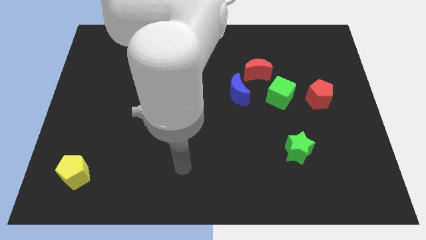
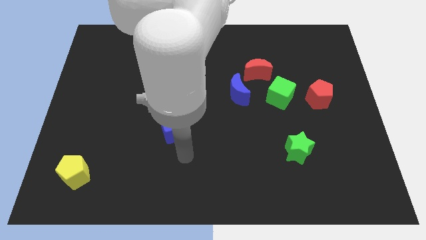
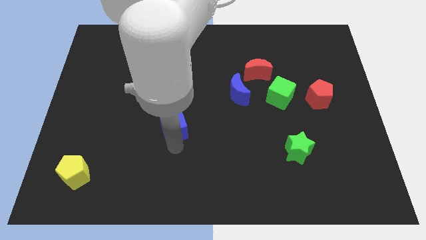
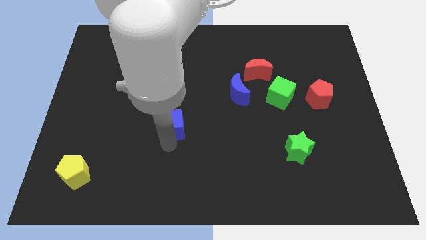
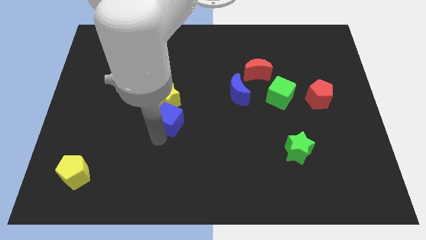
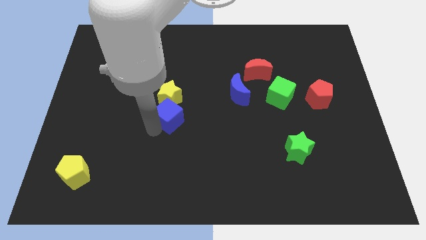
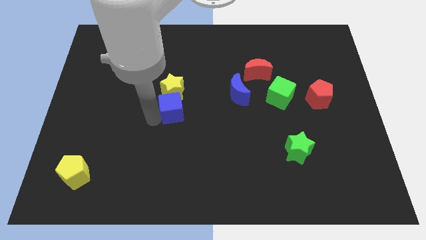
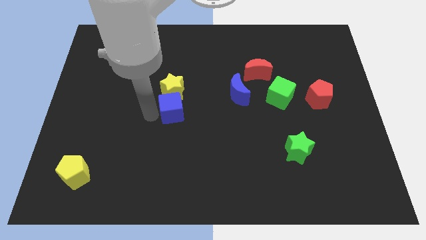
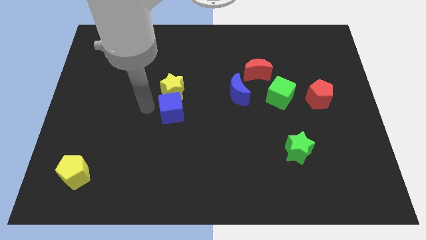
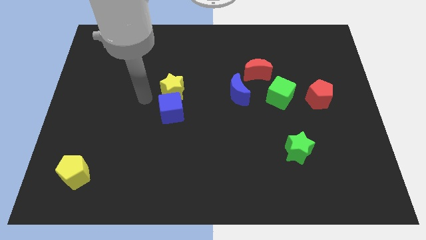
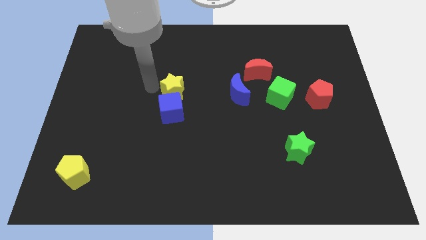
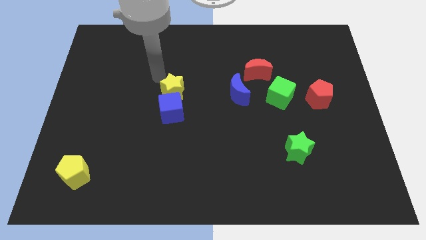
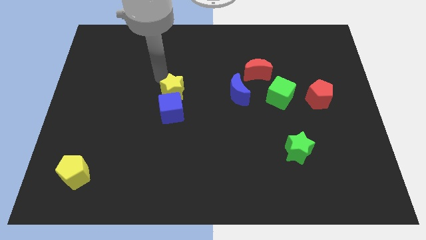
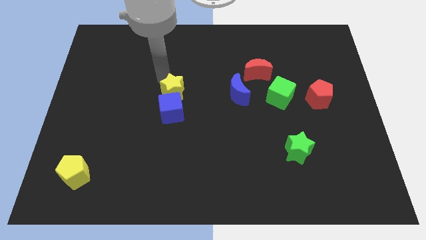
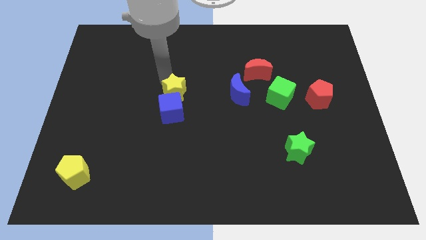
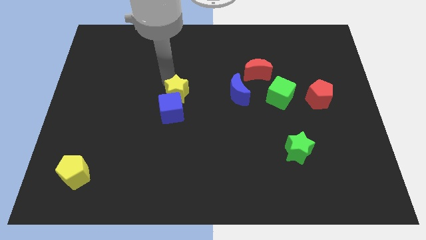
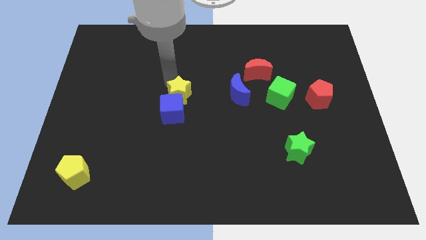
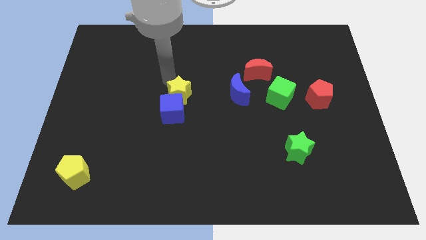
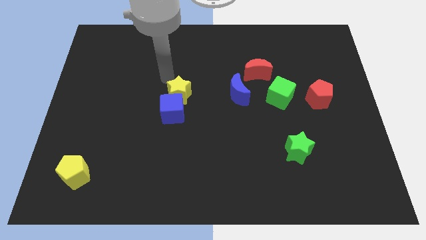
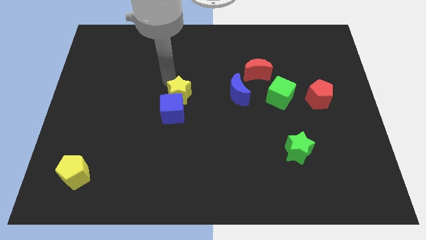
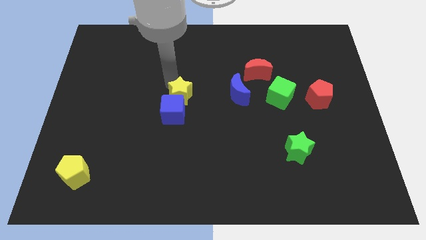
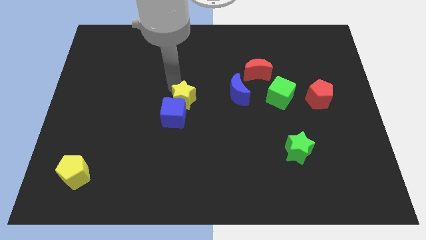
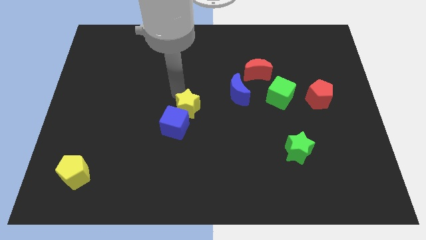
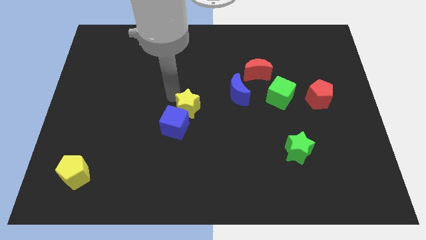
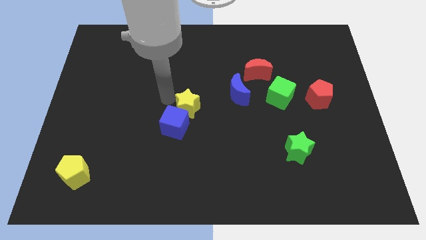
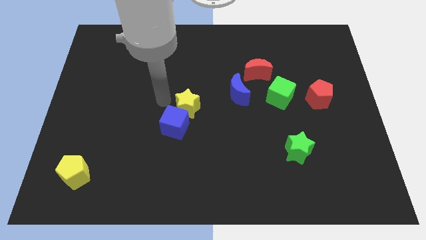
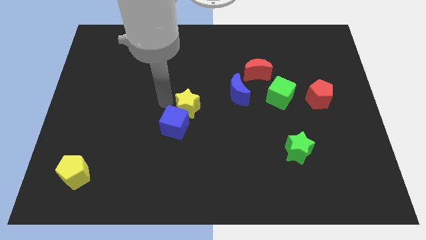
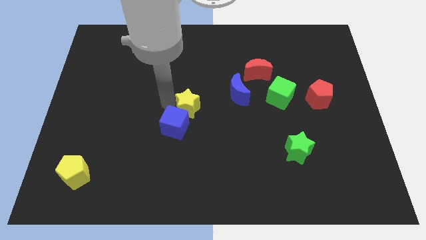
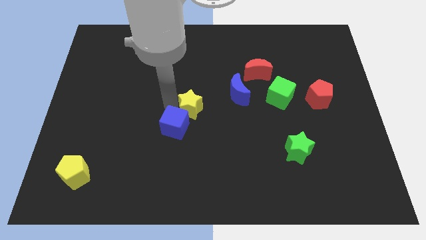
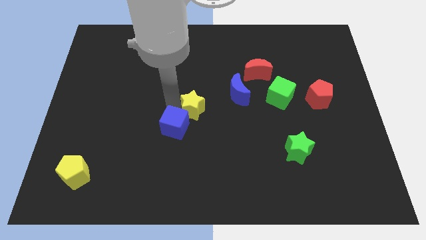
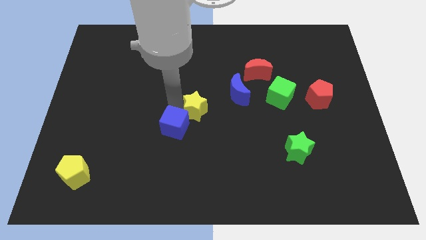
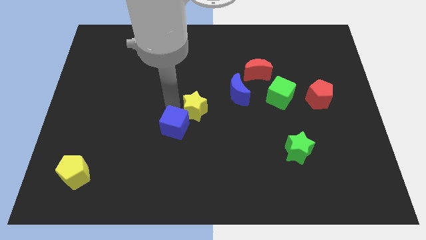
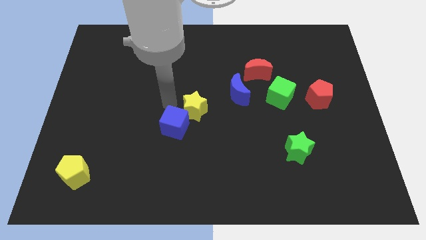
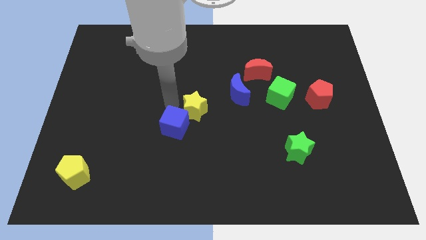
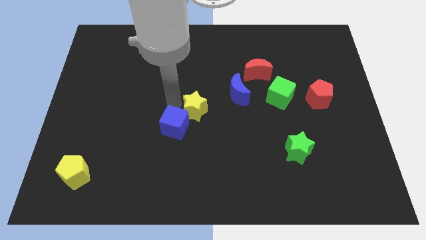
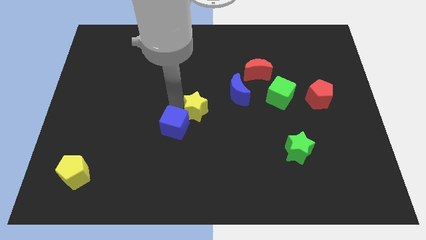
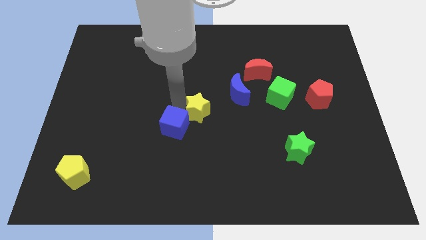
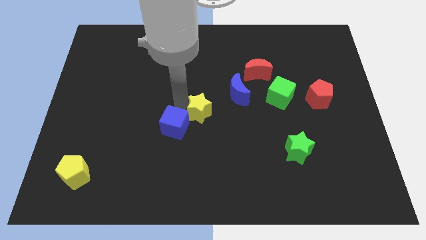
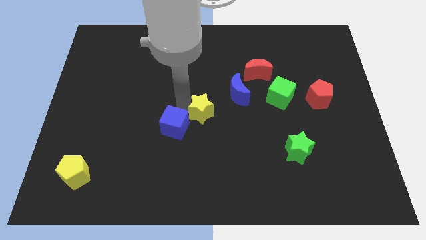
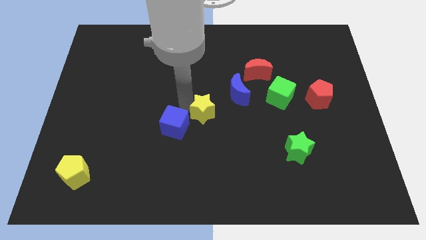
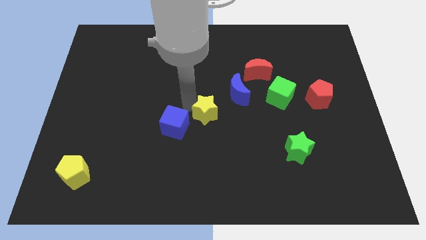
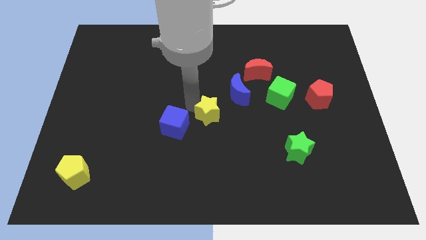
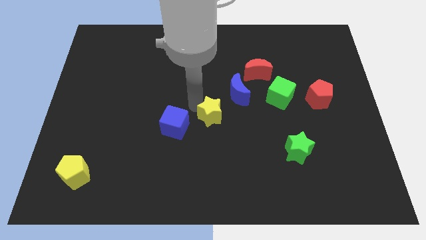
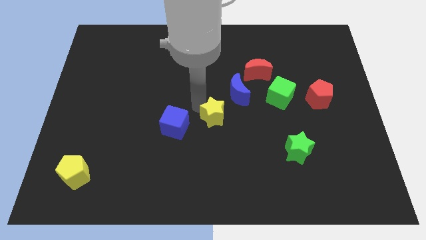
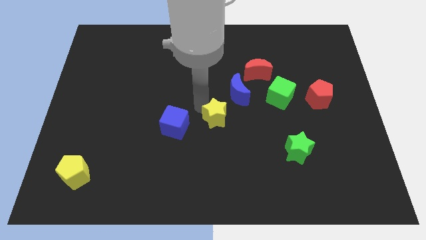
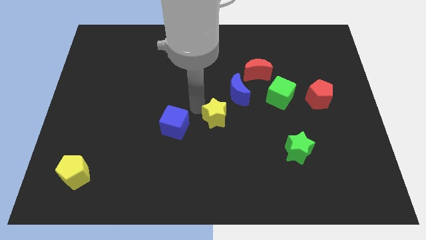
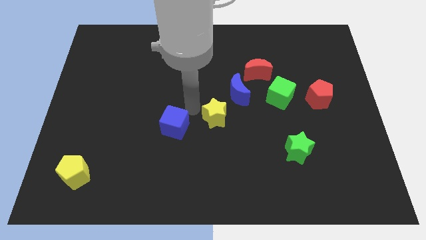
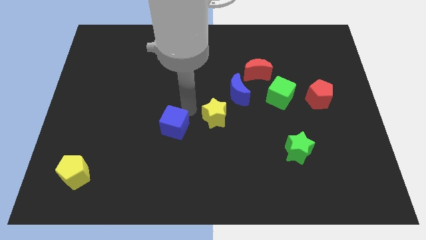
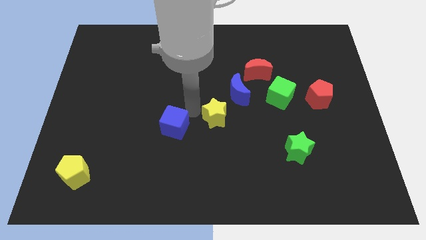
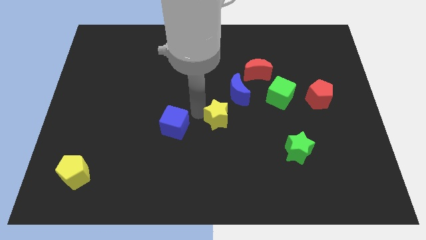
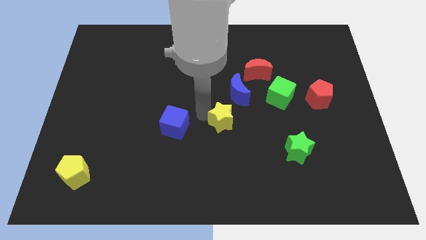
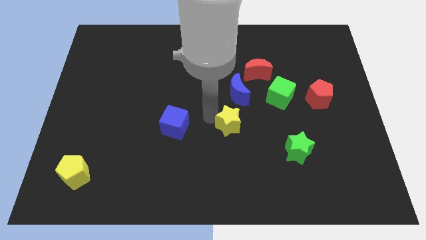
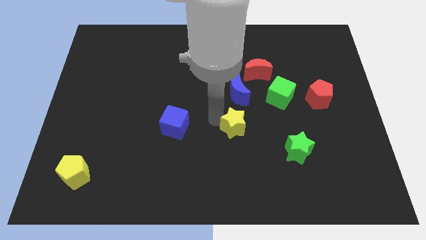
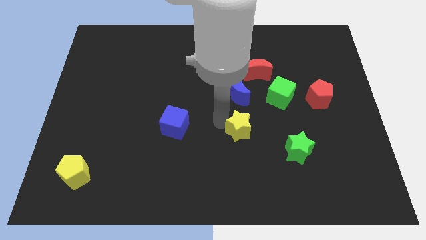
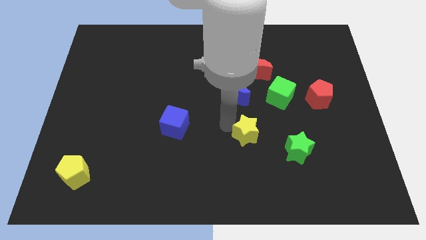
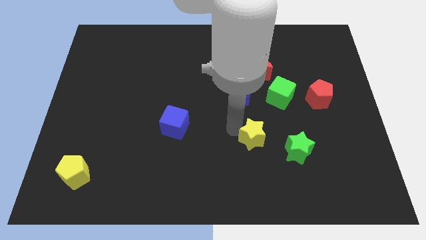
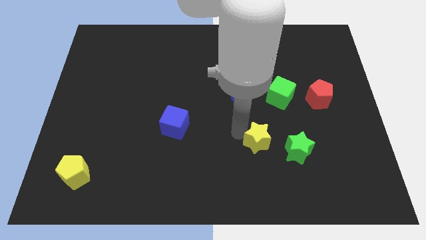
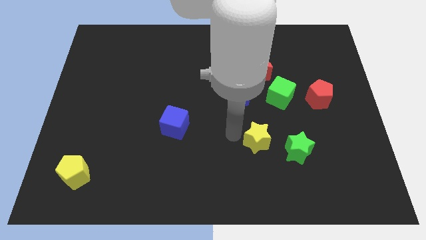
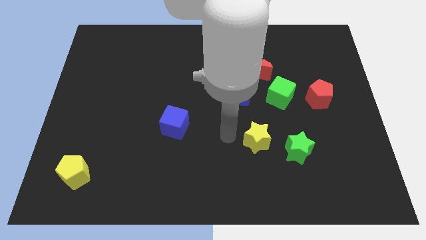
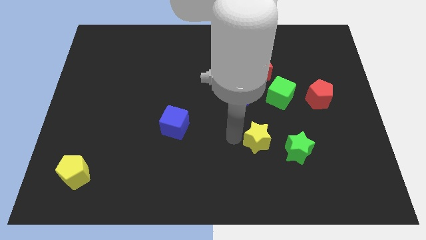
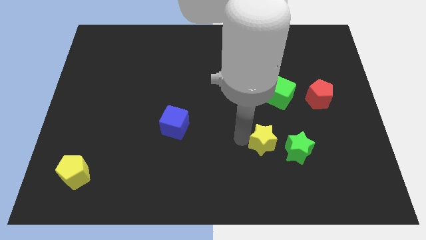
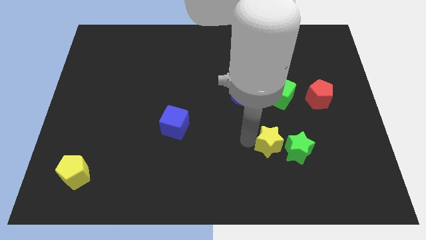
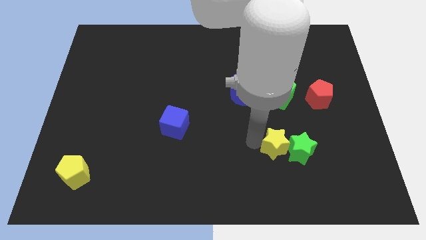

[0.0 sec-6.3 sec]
push the yellow star close to the green star

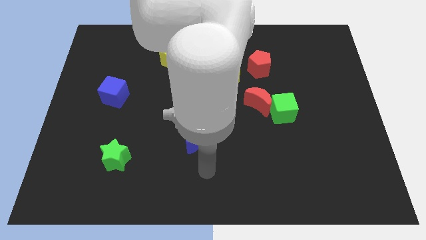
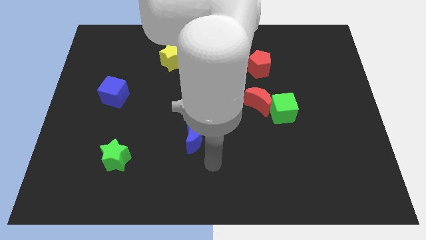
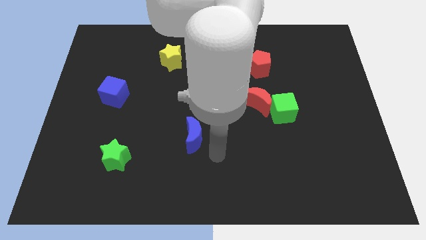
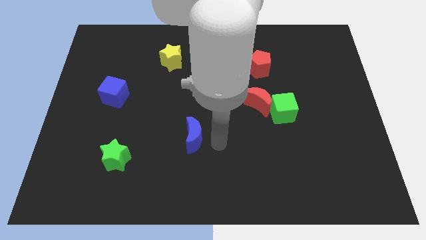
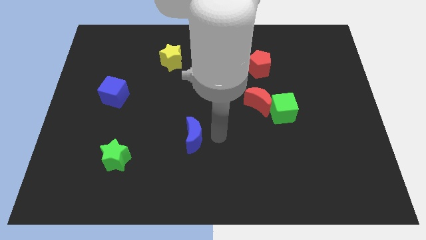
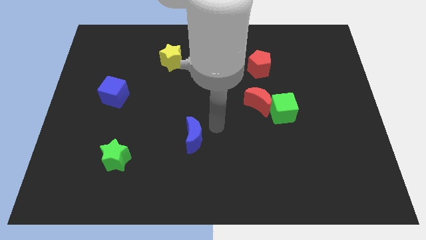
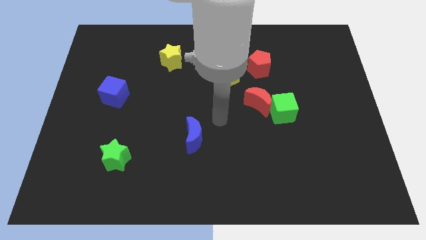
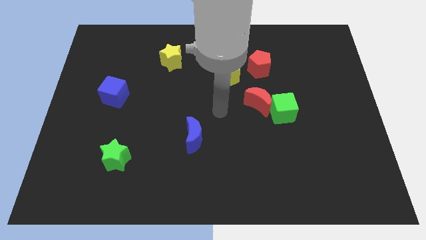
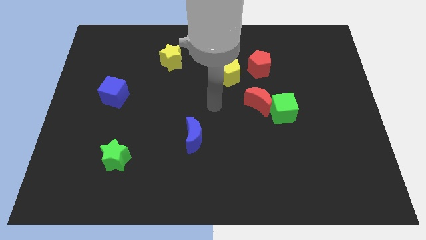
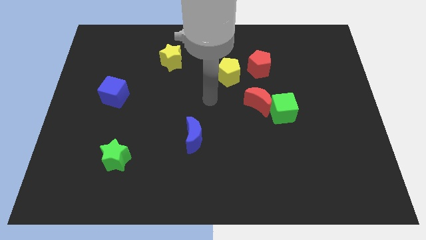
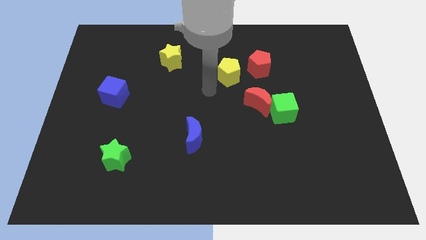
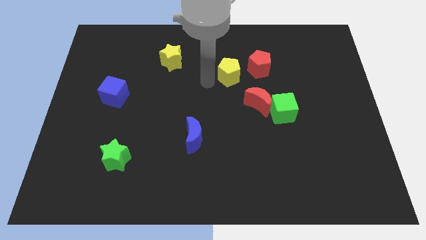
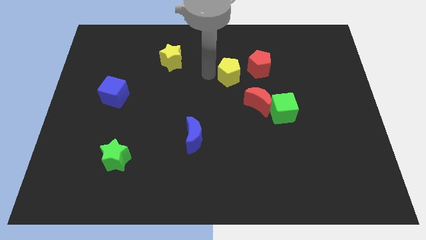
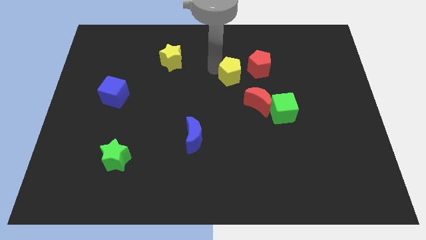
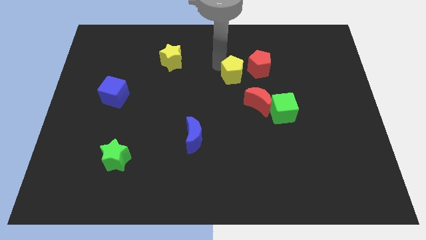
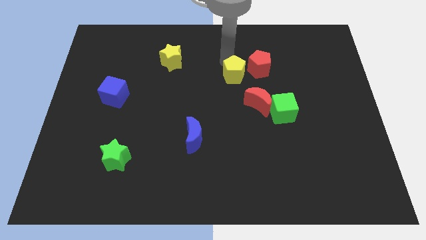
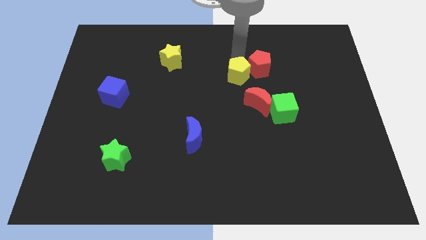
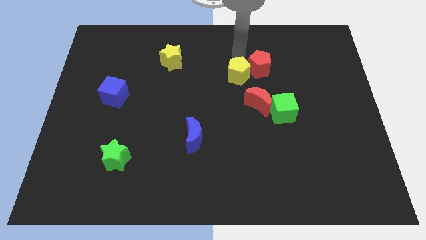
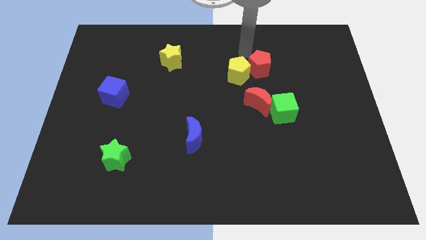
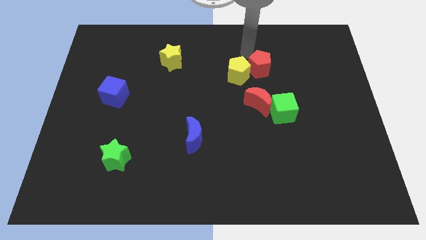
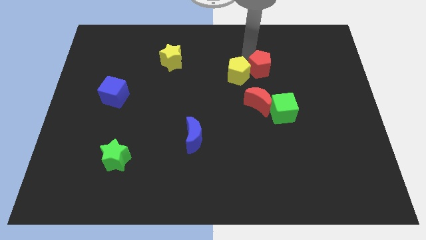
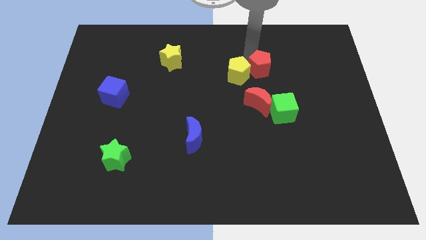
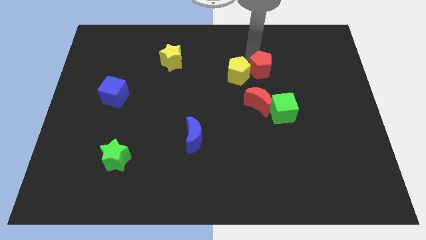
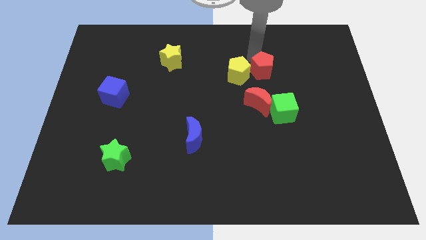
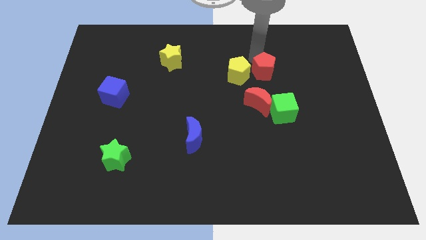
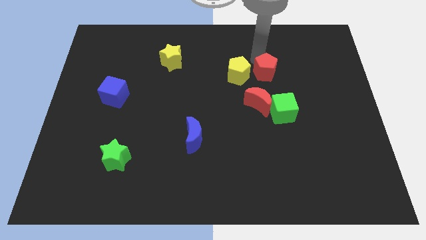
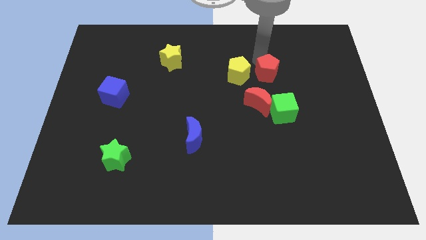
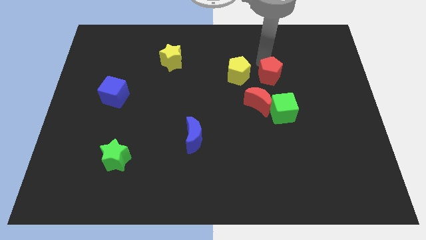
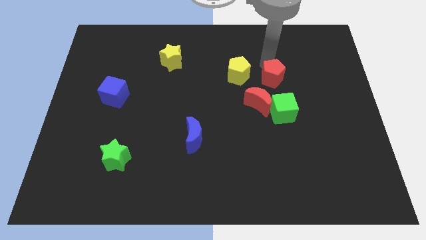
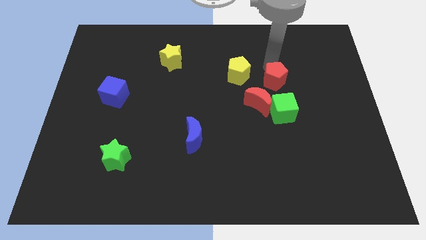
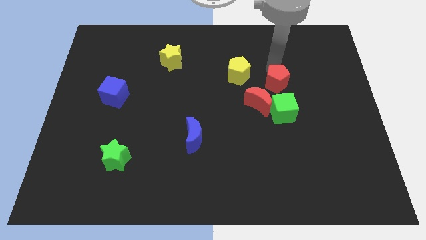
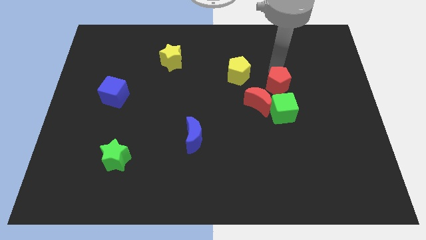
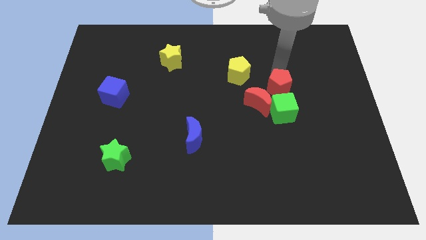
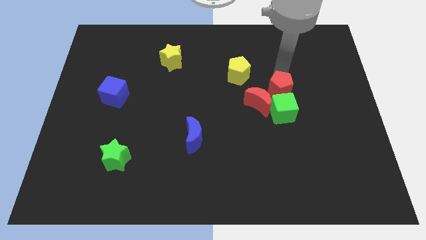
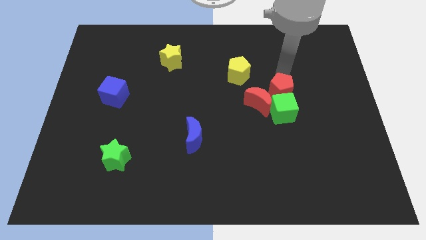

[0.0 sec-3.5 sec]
move the red pentagon next to the green cube
